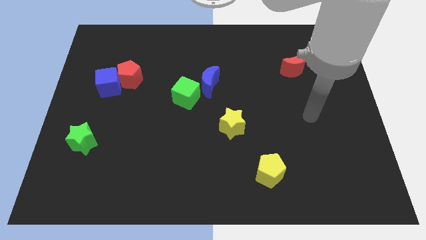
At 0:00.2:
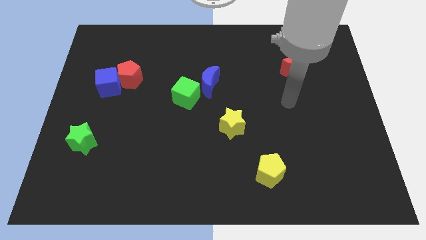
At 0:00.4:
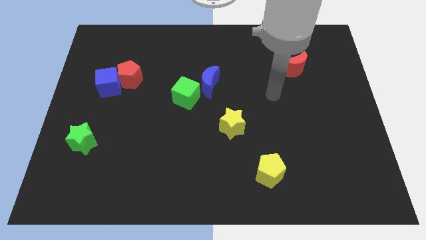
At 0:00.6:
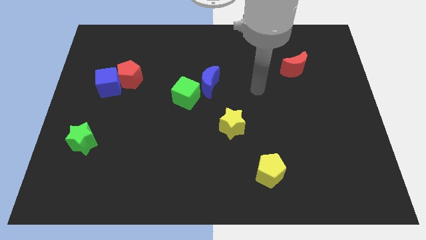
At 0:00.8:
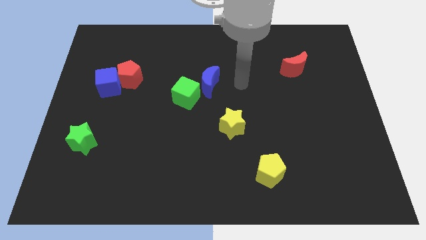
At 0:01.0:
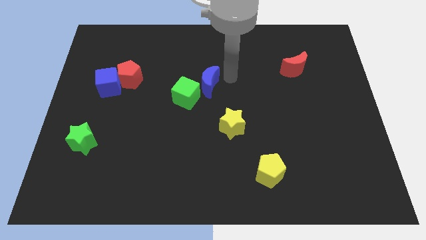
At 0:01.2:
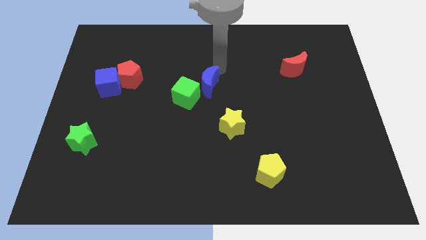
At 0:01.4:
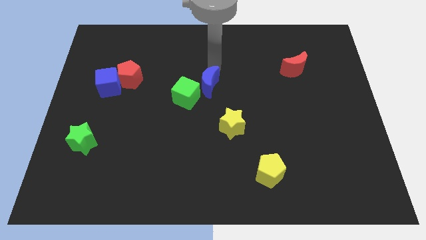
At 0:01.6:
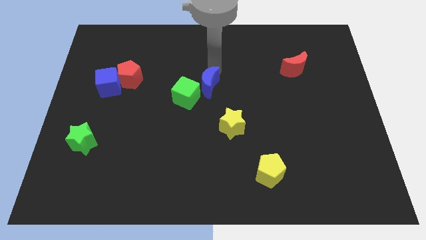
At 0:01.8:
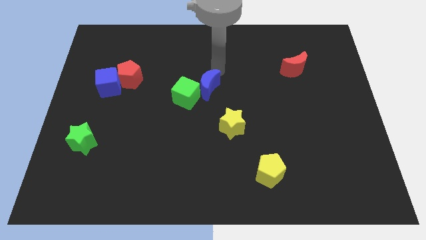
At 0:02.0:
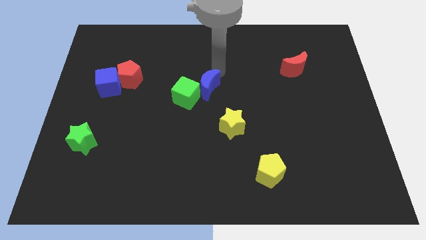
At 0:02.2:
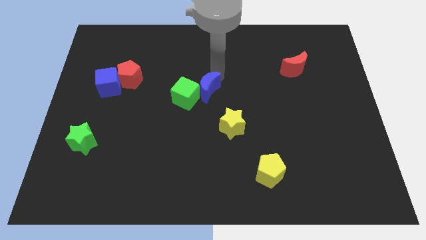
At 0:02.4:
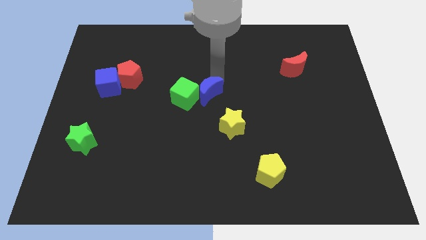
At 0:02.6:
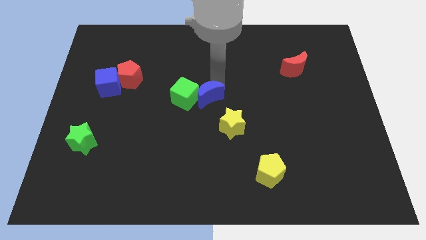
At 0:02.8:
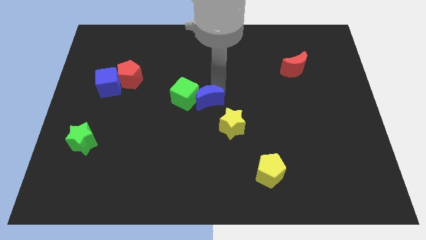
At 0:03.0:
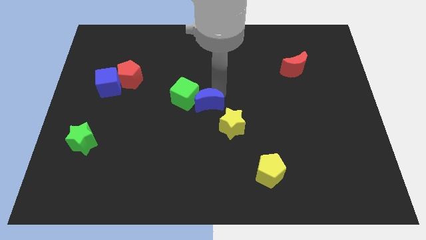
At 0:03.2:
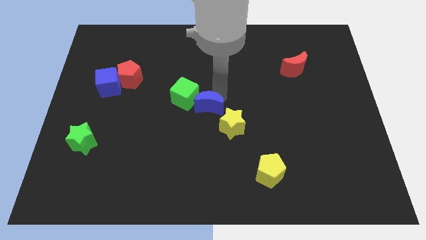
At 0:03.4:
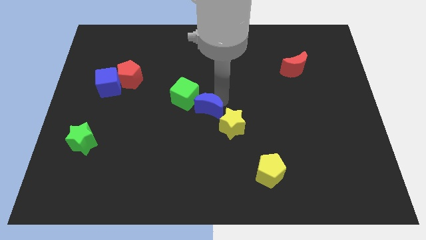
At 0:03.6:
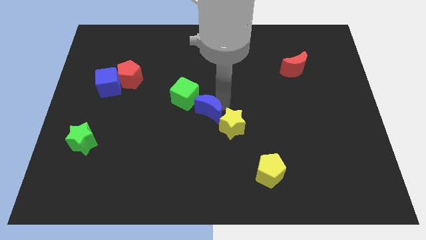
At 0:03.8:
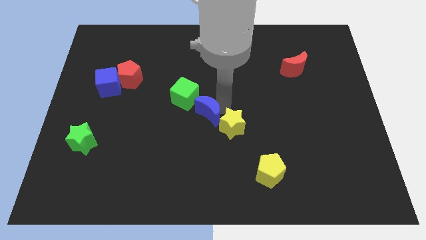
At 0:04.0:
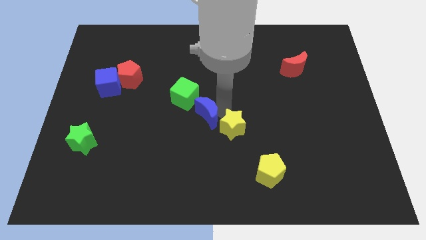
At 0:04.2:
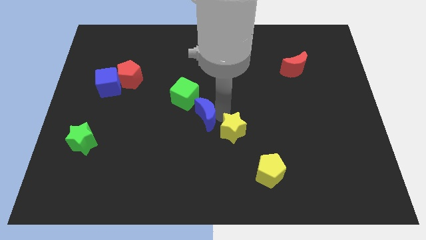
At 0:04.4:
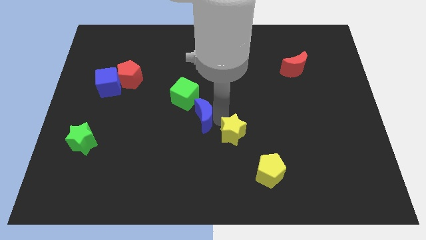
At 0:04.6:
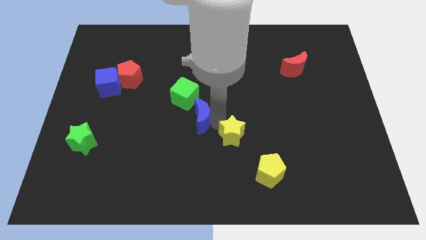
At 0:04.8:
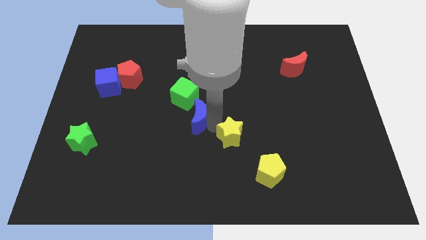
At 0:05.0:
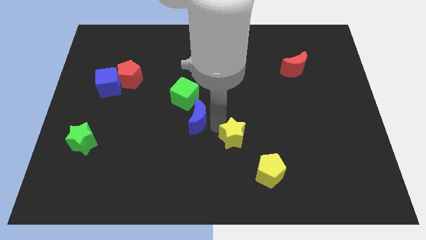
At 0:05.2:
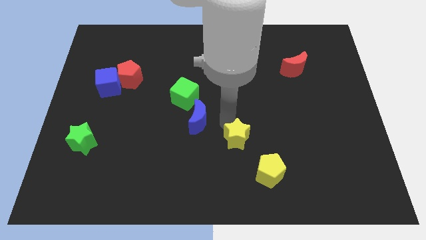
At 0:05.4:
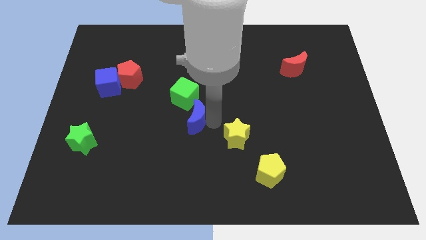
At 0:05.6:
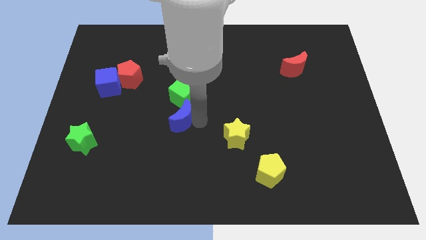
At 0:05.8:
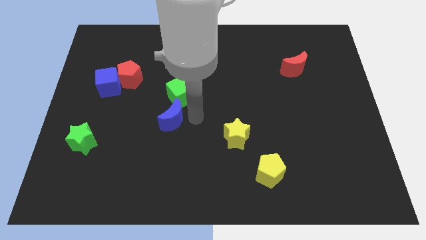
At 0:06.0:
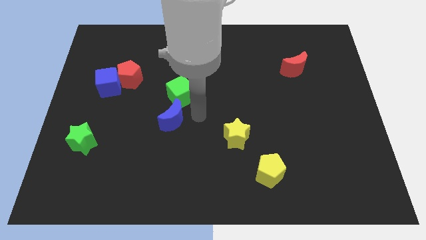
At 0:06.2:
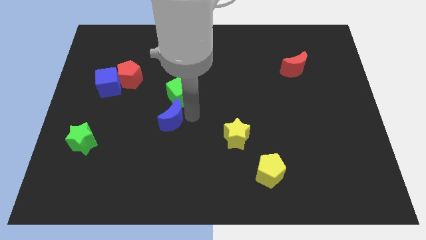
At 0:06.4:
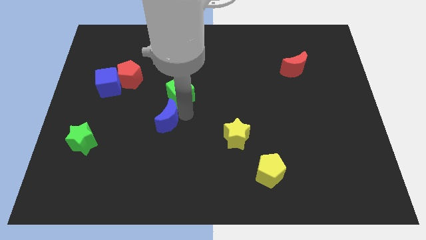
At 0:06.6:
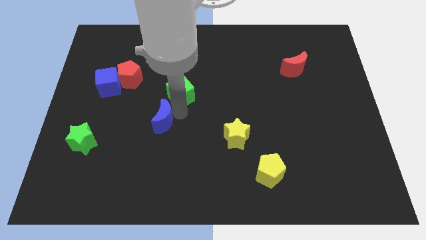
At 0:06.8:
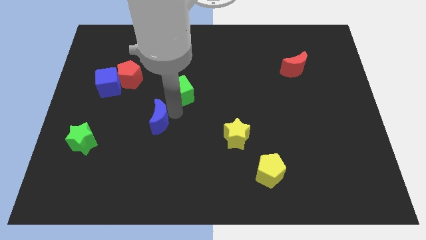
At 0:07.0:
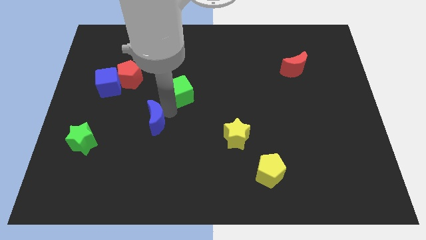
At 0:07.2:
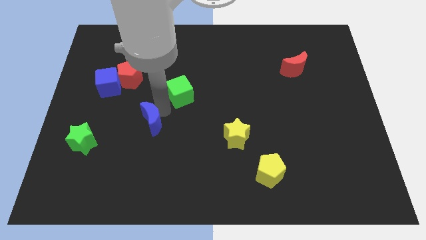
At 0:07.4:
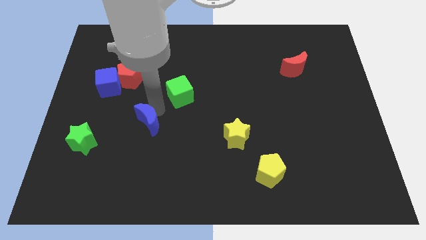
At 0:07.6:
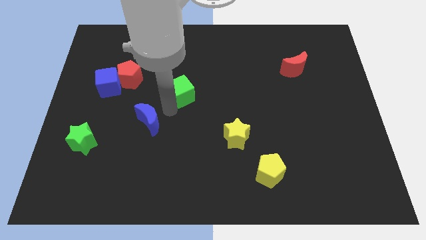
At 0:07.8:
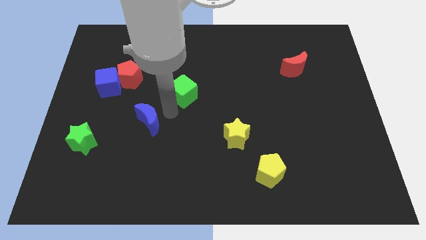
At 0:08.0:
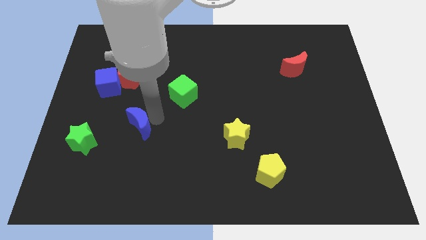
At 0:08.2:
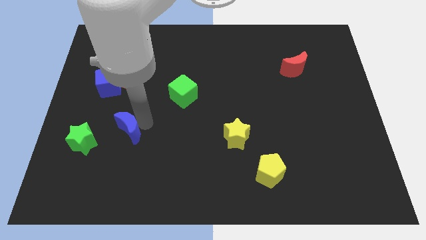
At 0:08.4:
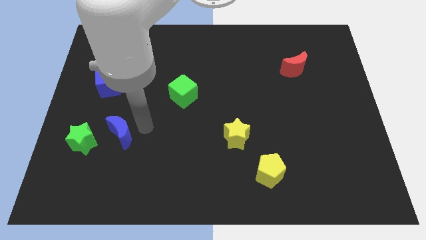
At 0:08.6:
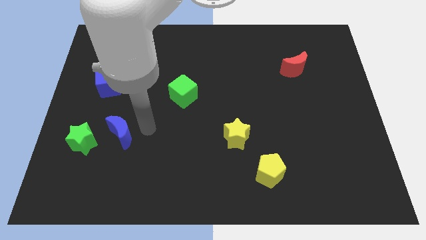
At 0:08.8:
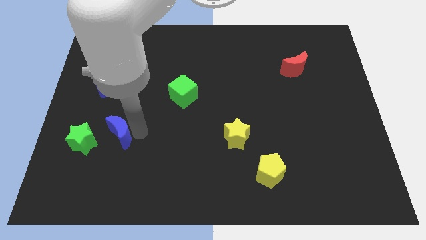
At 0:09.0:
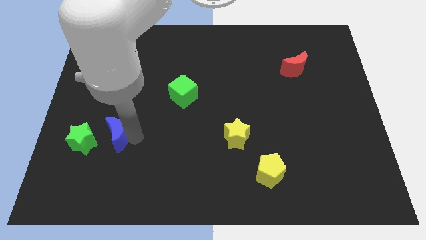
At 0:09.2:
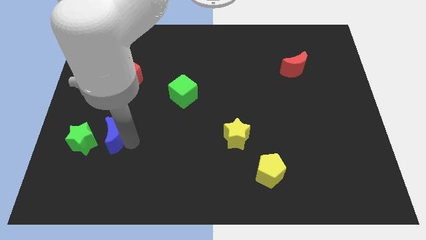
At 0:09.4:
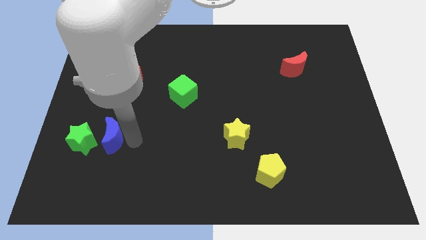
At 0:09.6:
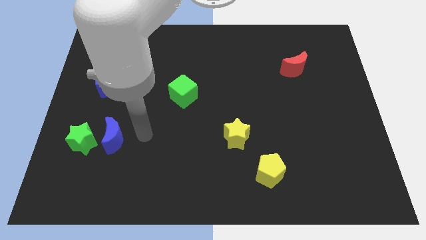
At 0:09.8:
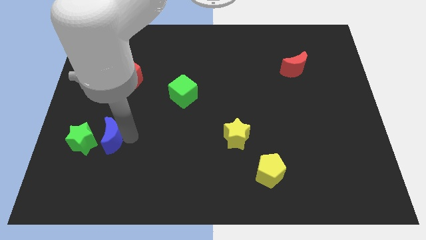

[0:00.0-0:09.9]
slide the blue moon next to the green star

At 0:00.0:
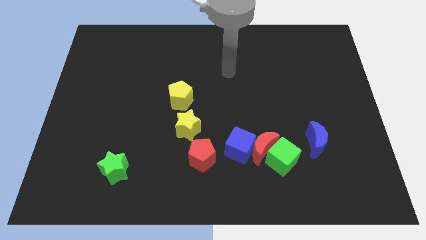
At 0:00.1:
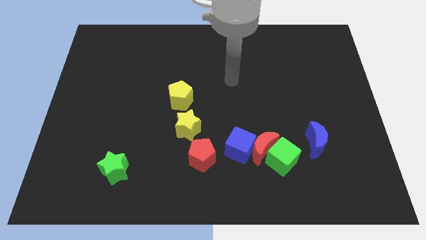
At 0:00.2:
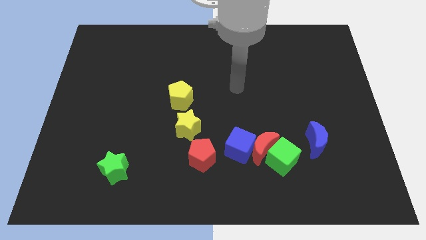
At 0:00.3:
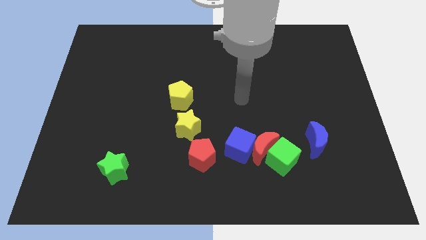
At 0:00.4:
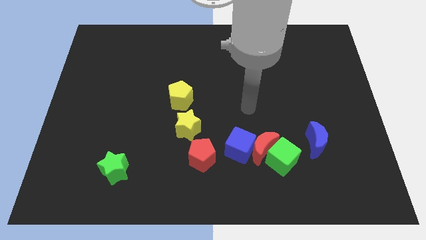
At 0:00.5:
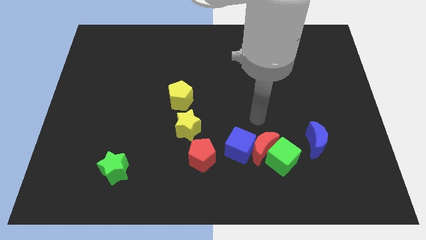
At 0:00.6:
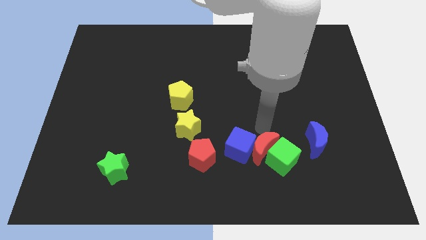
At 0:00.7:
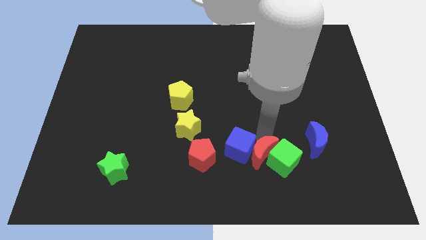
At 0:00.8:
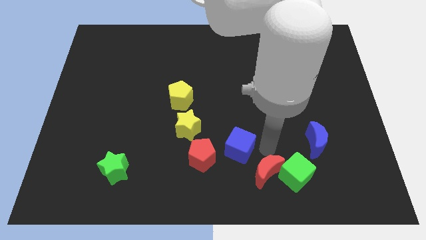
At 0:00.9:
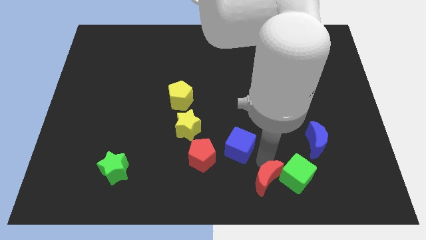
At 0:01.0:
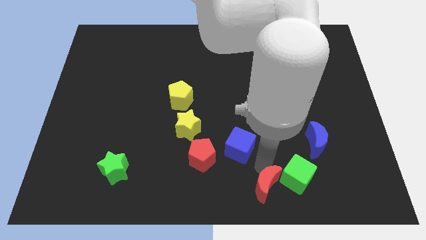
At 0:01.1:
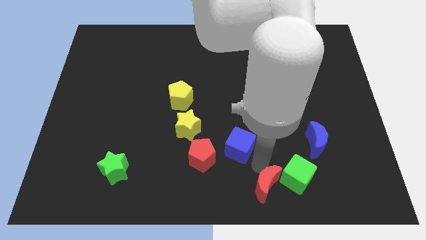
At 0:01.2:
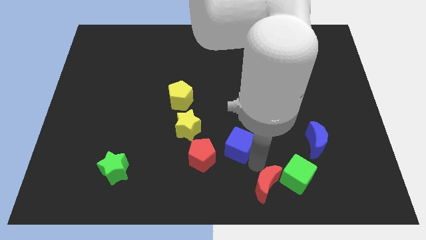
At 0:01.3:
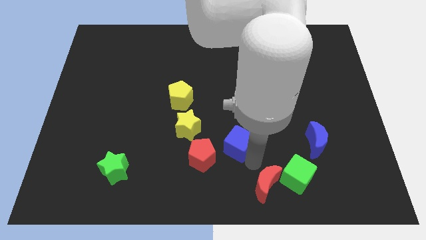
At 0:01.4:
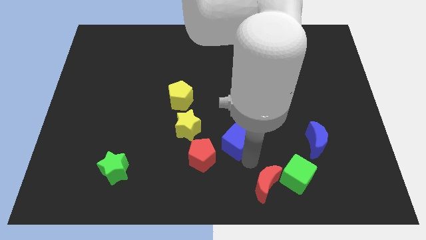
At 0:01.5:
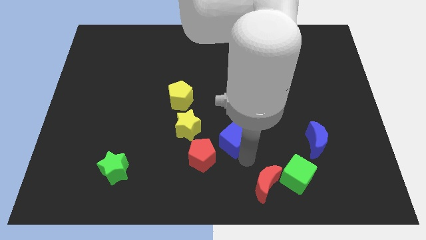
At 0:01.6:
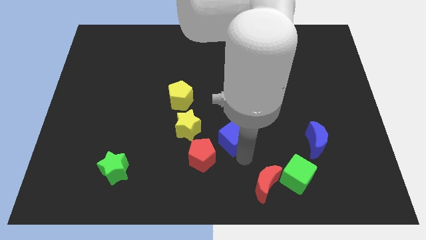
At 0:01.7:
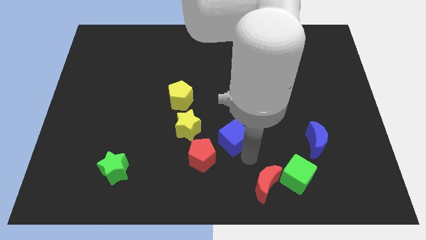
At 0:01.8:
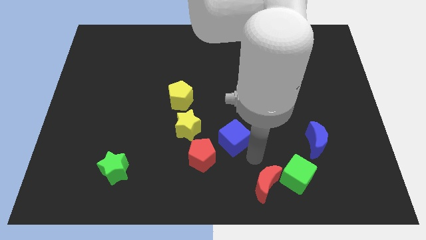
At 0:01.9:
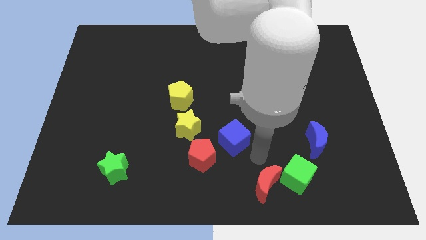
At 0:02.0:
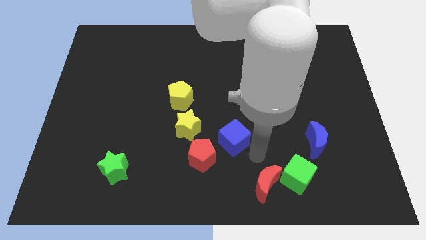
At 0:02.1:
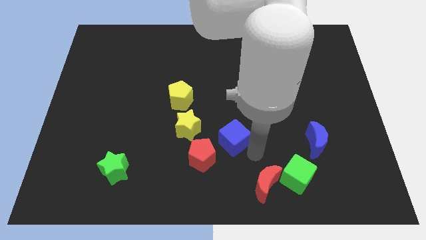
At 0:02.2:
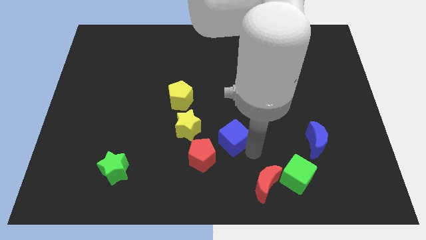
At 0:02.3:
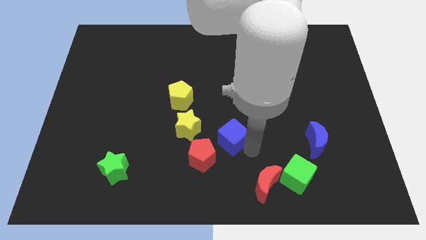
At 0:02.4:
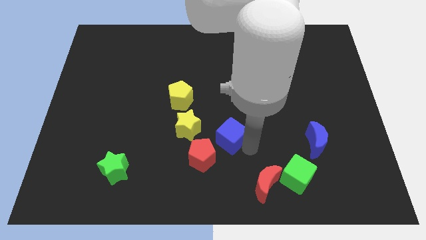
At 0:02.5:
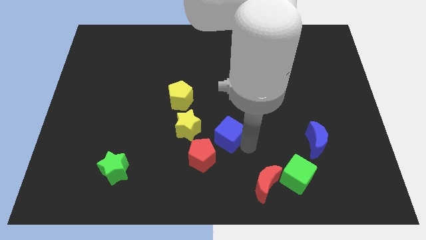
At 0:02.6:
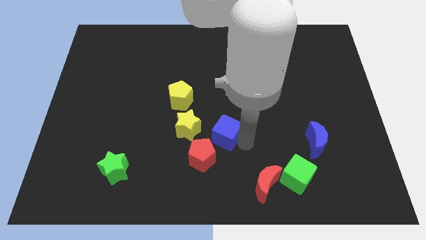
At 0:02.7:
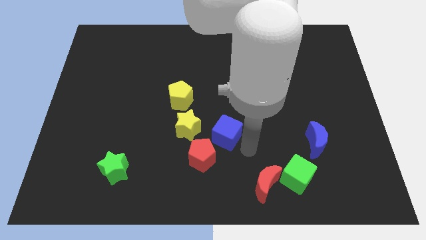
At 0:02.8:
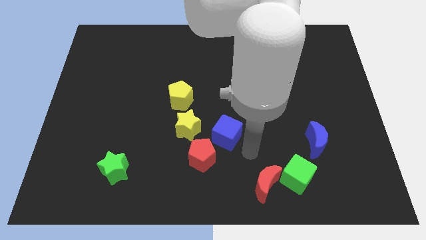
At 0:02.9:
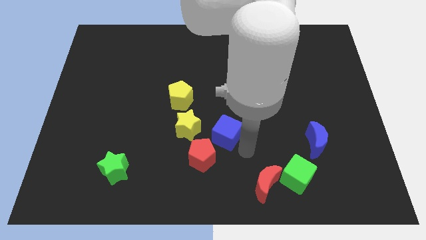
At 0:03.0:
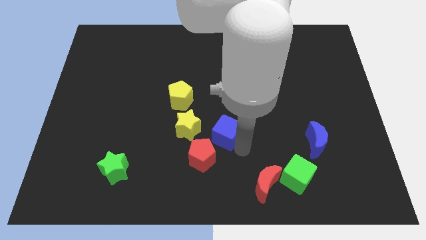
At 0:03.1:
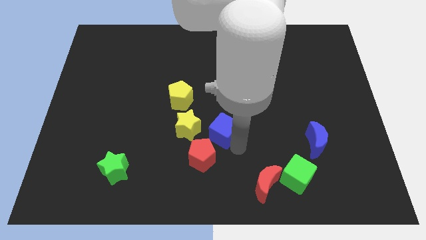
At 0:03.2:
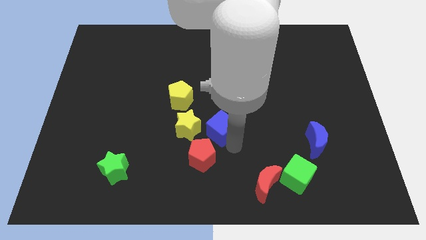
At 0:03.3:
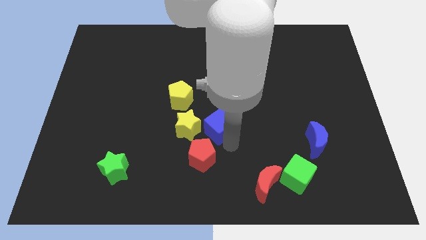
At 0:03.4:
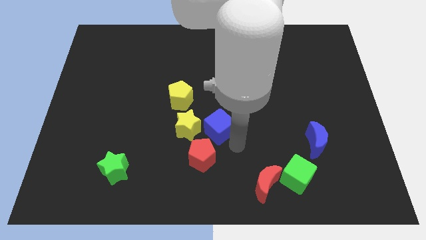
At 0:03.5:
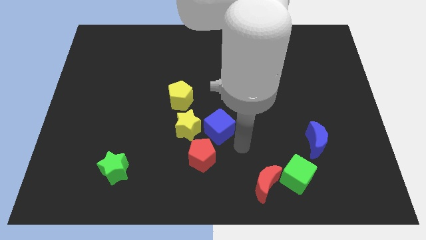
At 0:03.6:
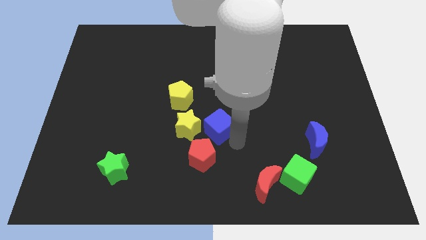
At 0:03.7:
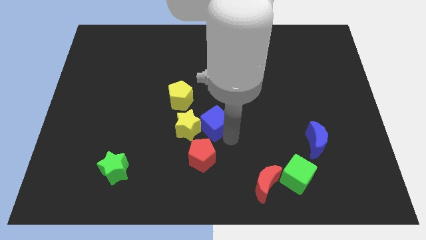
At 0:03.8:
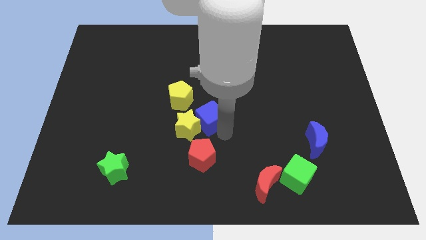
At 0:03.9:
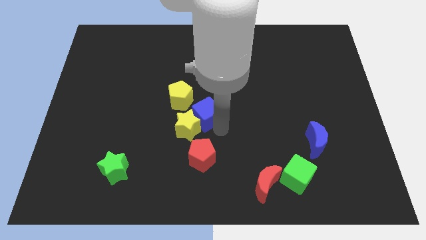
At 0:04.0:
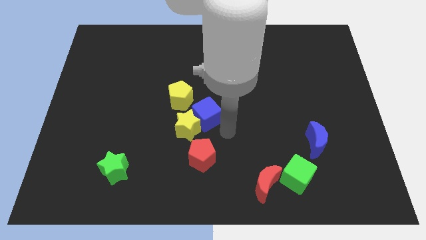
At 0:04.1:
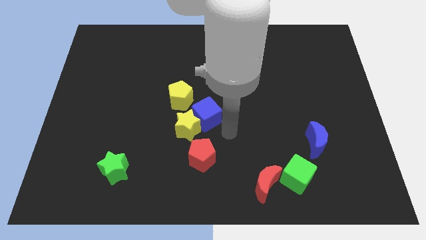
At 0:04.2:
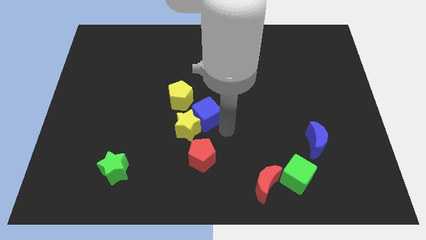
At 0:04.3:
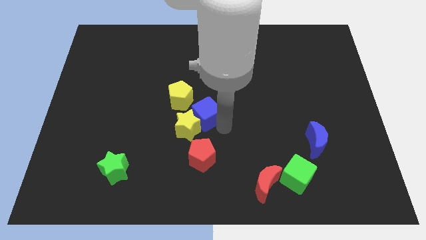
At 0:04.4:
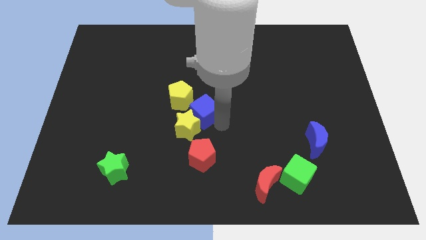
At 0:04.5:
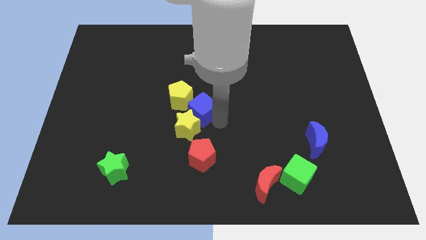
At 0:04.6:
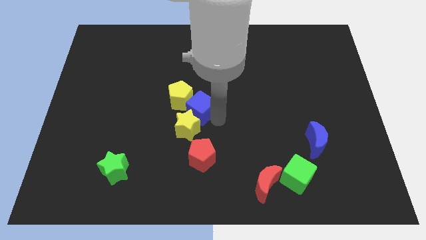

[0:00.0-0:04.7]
move the blue cube next to the yellow pentagon
